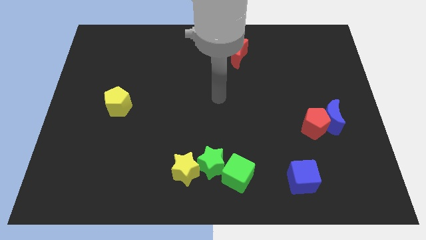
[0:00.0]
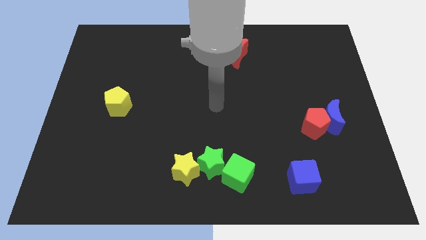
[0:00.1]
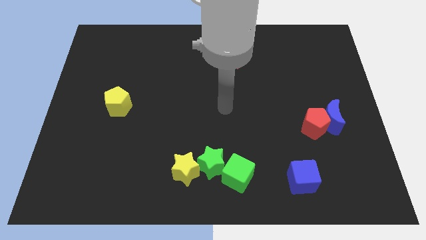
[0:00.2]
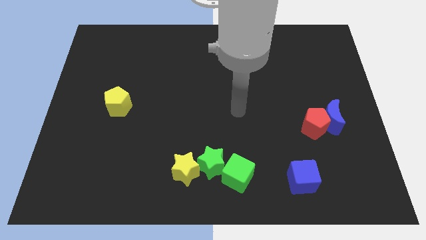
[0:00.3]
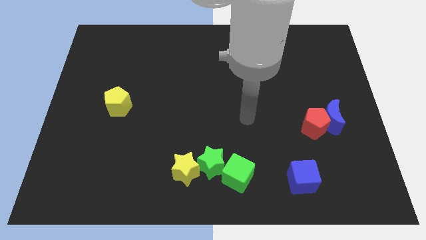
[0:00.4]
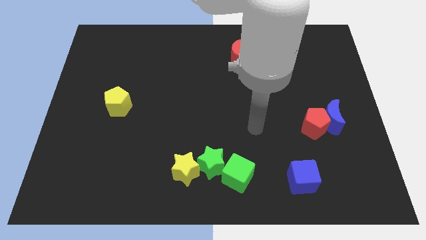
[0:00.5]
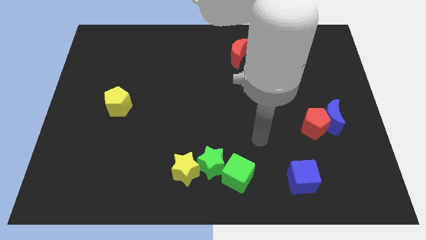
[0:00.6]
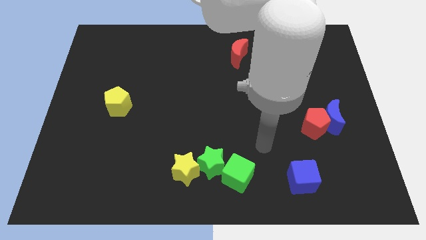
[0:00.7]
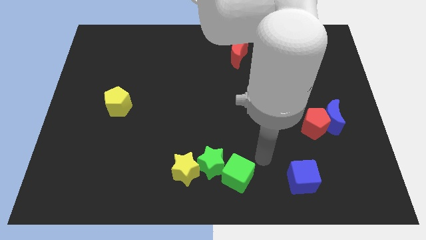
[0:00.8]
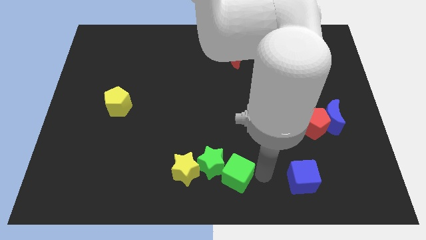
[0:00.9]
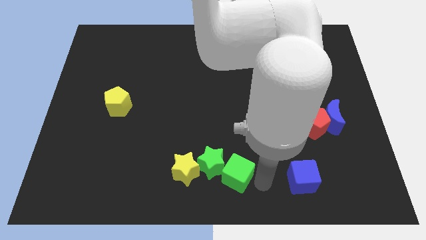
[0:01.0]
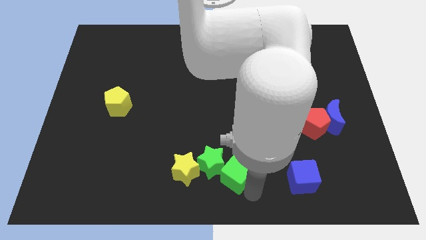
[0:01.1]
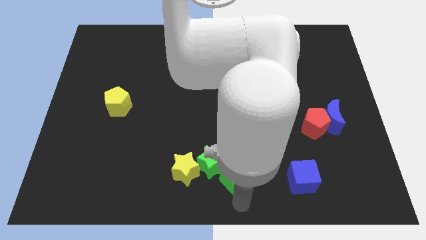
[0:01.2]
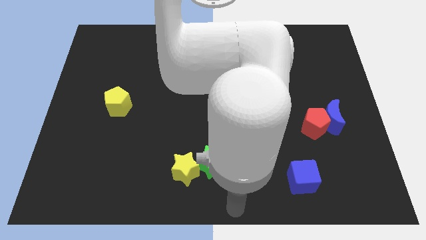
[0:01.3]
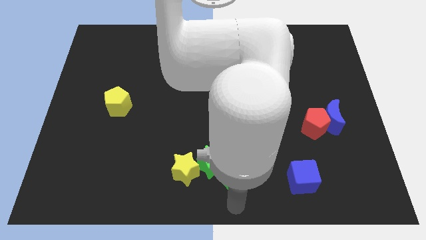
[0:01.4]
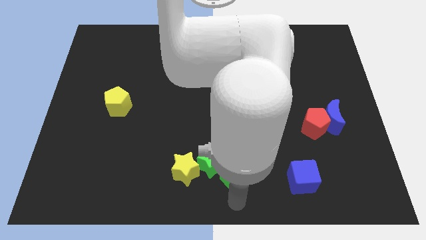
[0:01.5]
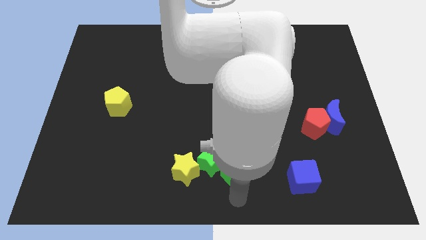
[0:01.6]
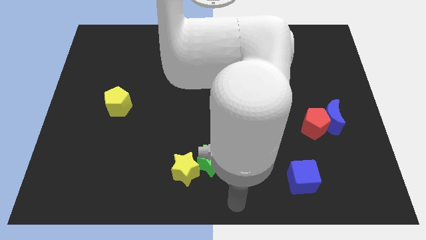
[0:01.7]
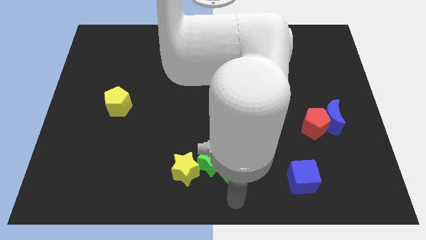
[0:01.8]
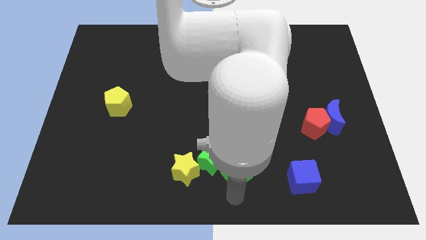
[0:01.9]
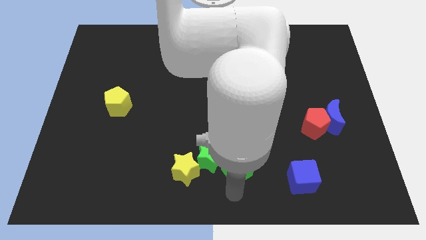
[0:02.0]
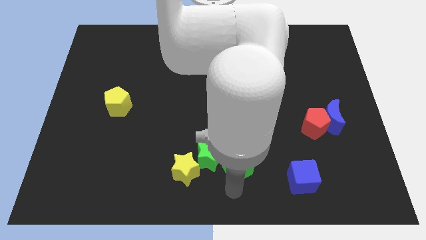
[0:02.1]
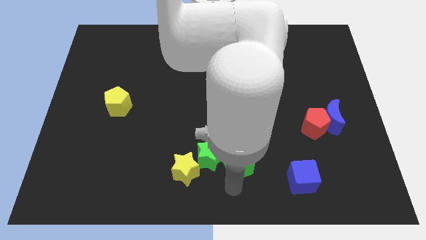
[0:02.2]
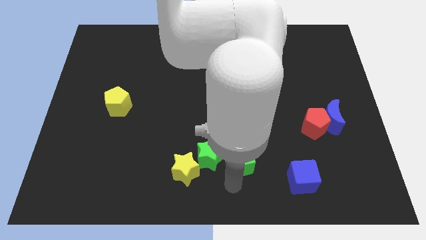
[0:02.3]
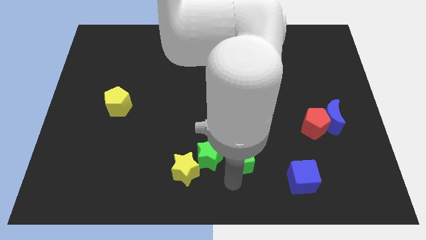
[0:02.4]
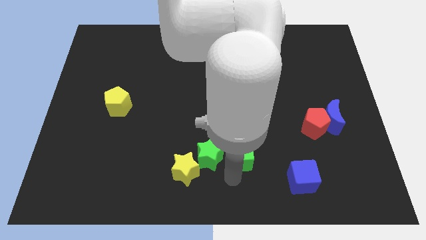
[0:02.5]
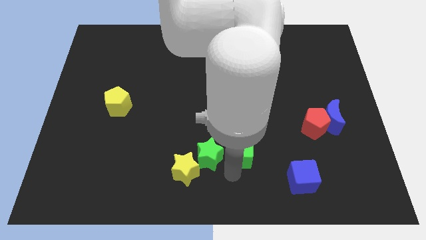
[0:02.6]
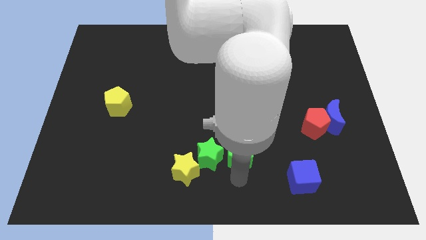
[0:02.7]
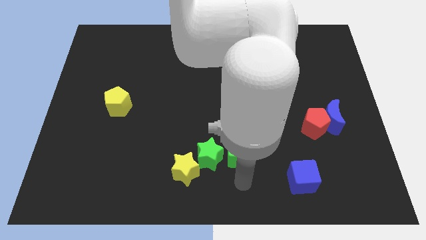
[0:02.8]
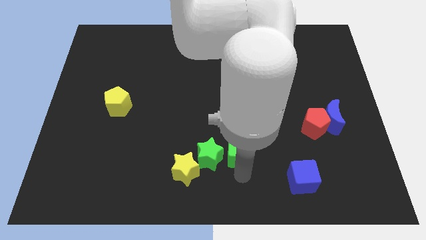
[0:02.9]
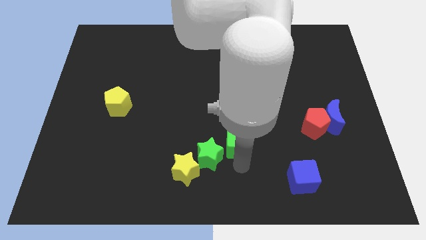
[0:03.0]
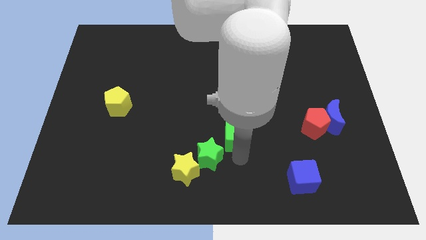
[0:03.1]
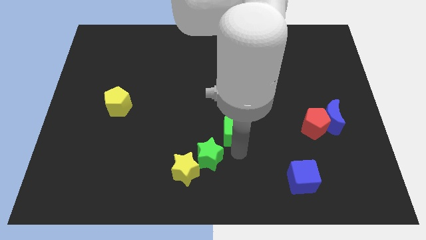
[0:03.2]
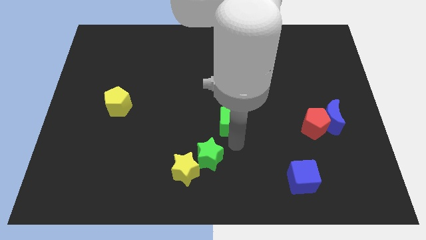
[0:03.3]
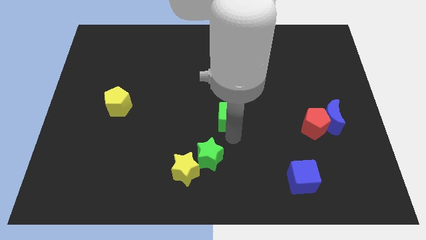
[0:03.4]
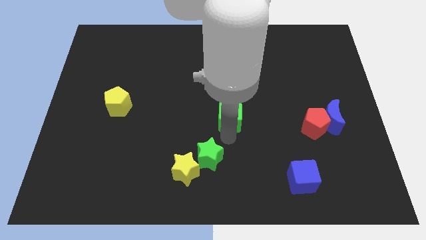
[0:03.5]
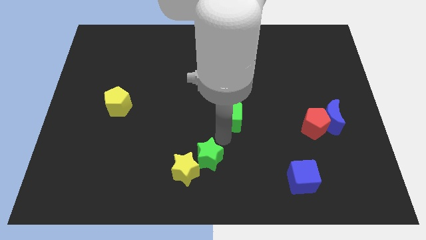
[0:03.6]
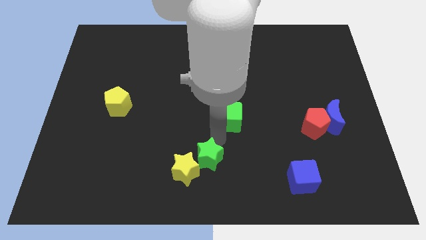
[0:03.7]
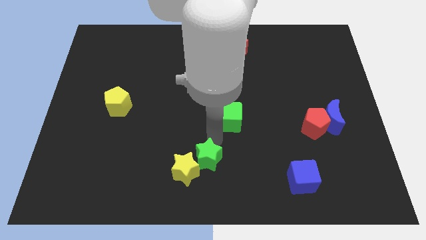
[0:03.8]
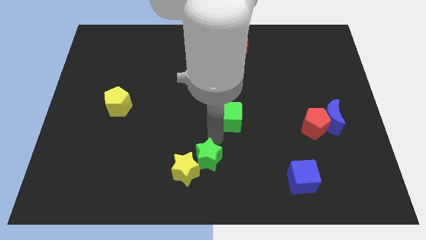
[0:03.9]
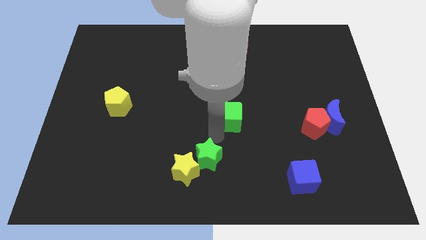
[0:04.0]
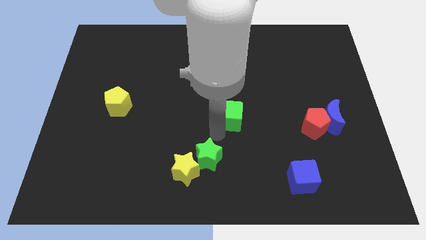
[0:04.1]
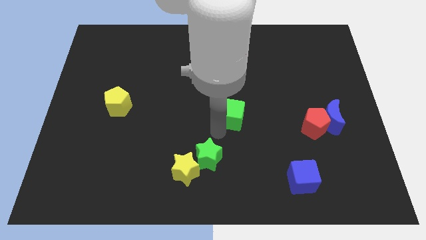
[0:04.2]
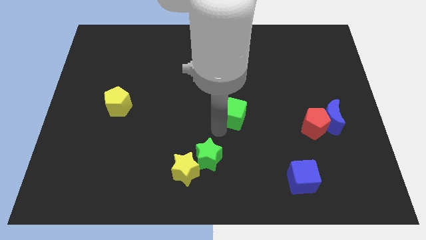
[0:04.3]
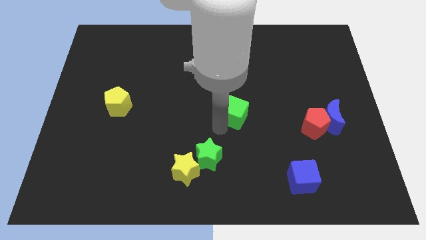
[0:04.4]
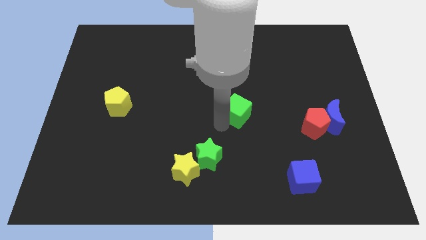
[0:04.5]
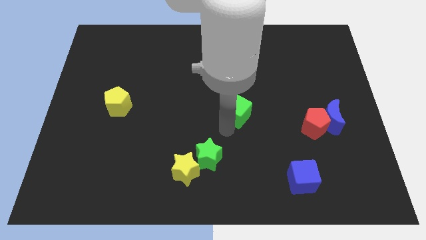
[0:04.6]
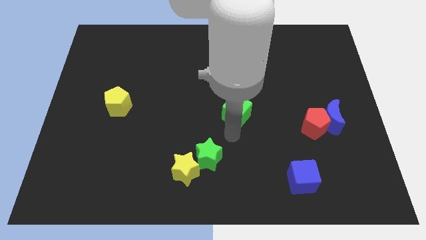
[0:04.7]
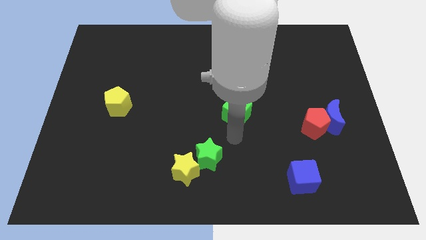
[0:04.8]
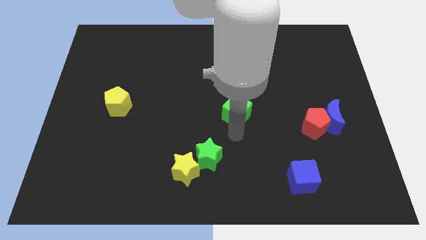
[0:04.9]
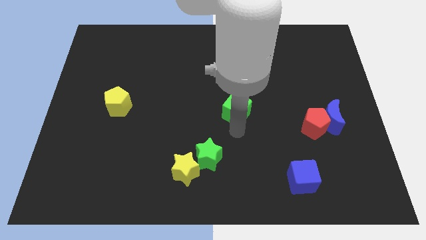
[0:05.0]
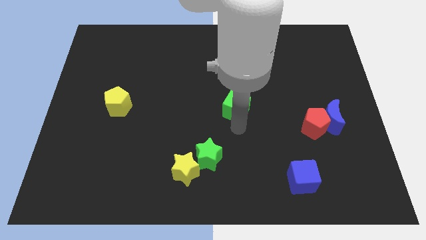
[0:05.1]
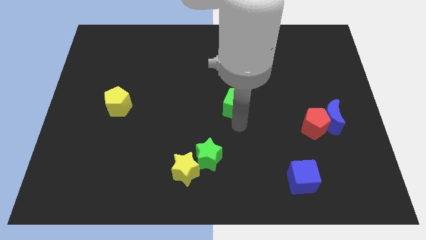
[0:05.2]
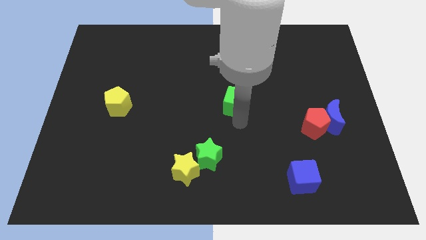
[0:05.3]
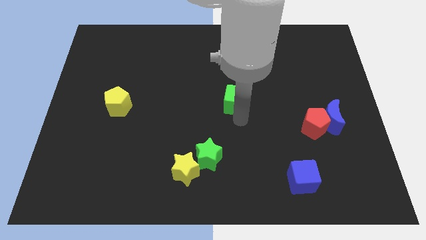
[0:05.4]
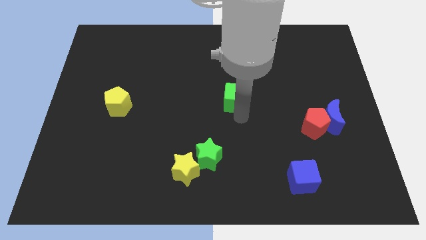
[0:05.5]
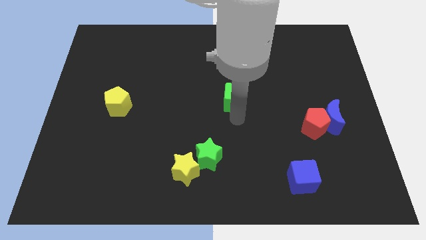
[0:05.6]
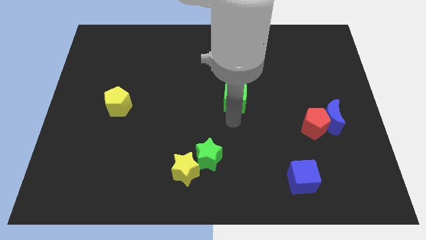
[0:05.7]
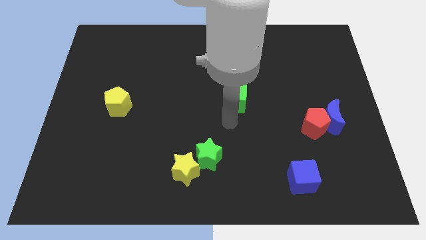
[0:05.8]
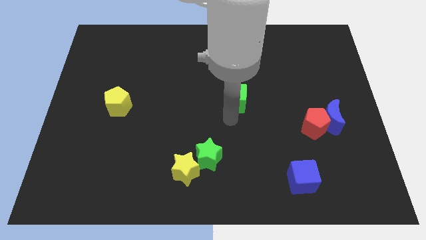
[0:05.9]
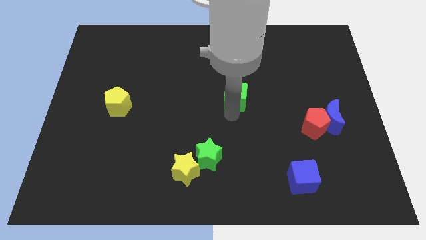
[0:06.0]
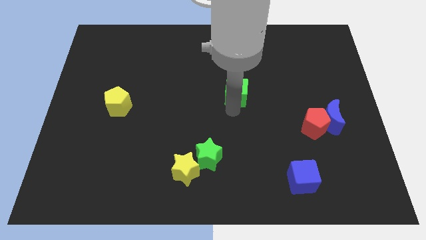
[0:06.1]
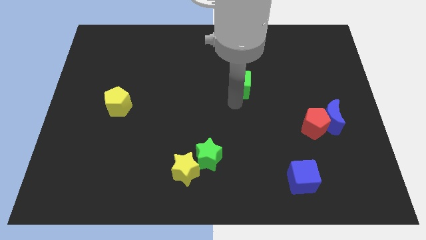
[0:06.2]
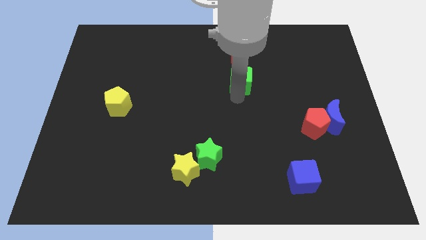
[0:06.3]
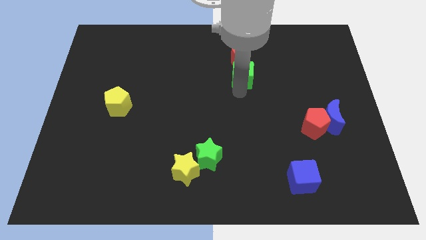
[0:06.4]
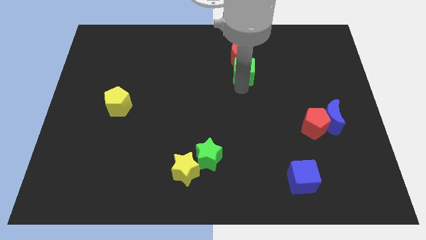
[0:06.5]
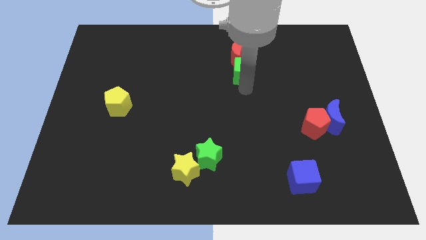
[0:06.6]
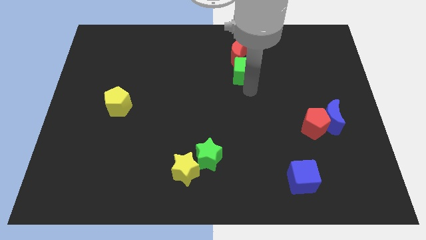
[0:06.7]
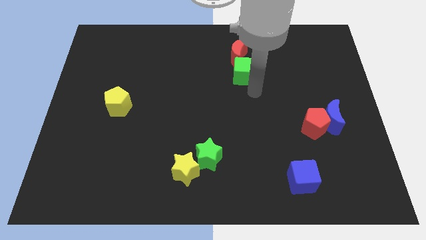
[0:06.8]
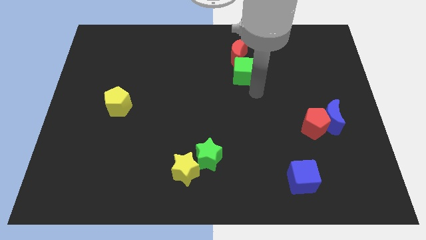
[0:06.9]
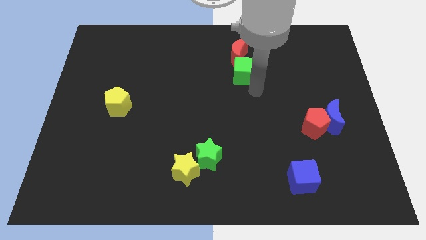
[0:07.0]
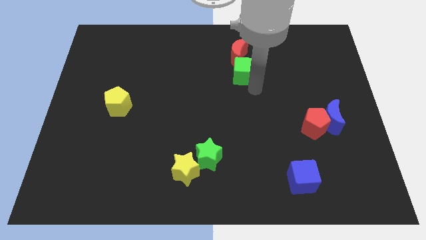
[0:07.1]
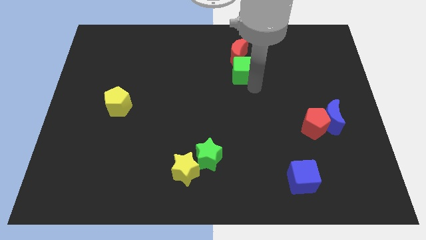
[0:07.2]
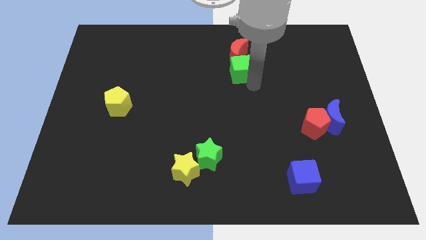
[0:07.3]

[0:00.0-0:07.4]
push the green cube close to the red moon
